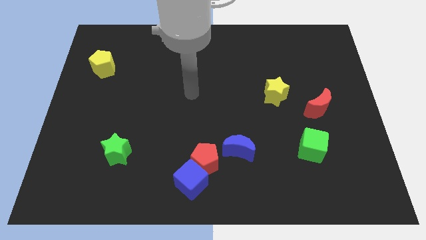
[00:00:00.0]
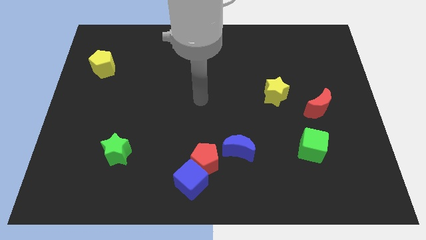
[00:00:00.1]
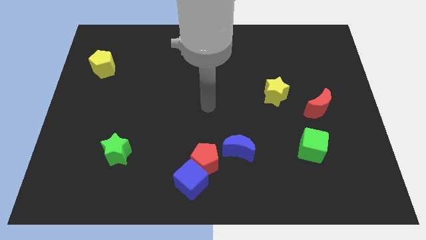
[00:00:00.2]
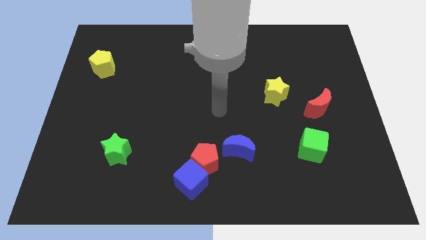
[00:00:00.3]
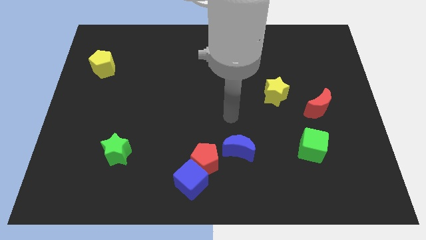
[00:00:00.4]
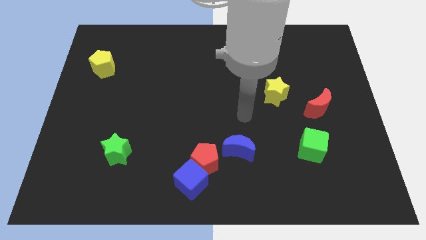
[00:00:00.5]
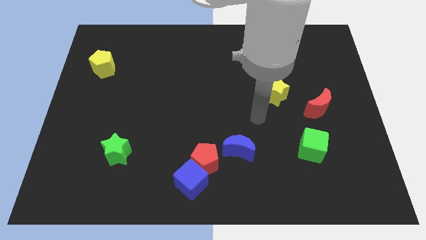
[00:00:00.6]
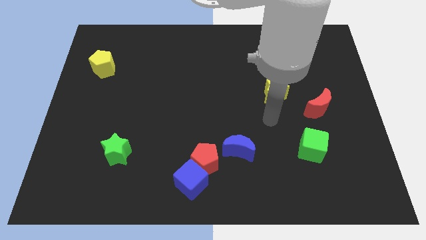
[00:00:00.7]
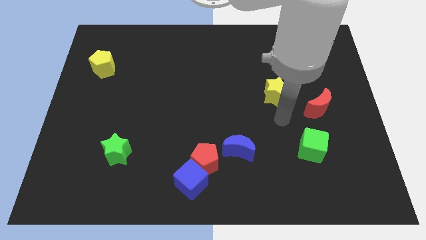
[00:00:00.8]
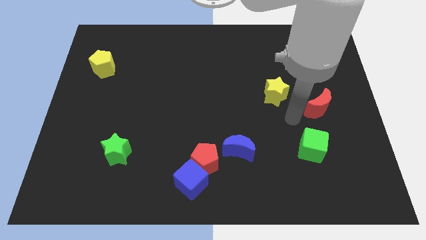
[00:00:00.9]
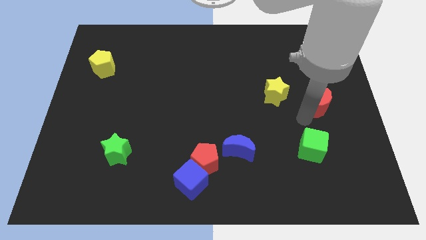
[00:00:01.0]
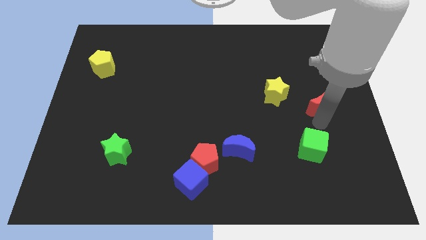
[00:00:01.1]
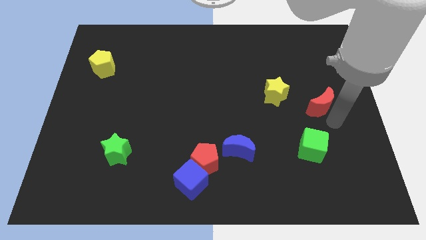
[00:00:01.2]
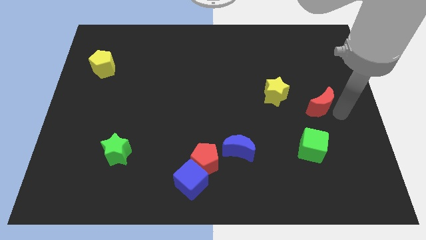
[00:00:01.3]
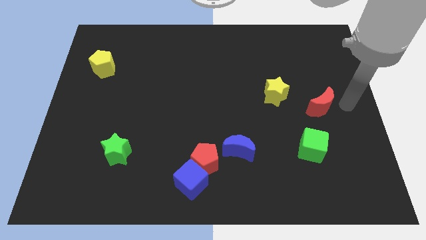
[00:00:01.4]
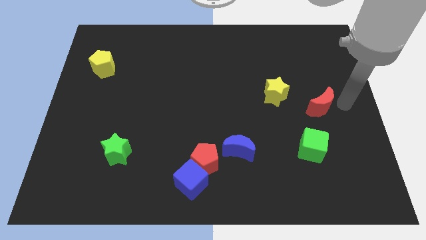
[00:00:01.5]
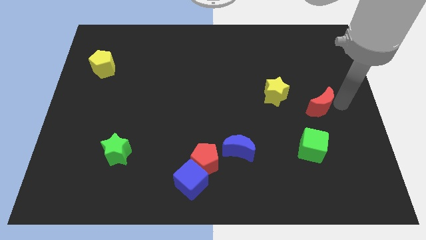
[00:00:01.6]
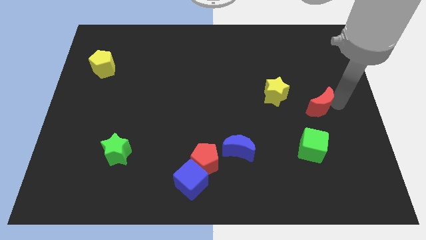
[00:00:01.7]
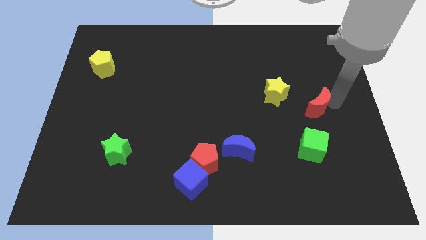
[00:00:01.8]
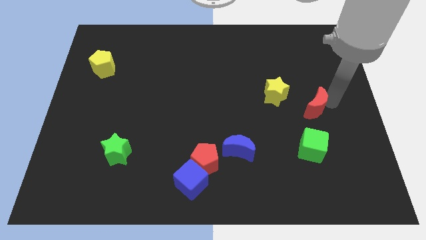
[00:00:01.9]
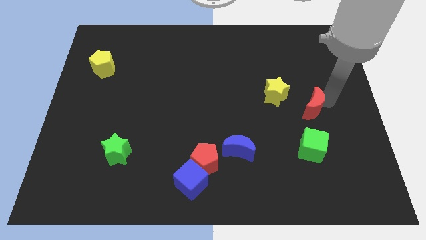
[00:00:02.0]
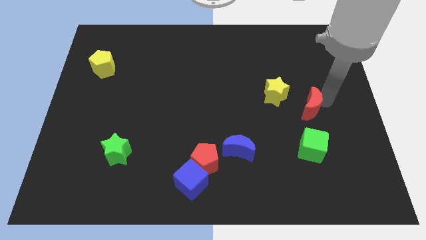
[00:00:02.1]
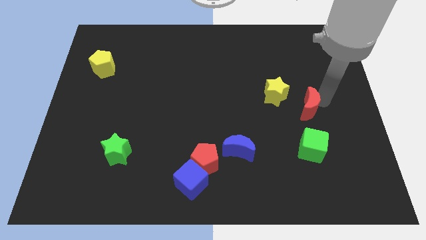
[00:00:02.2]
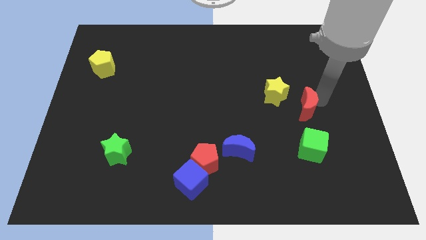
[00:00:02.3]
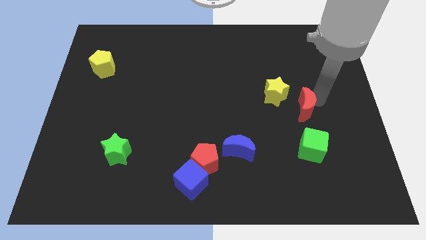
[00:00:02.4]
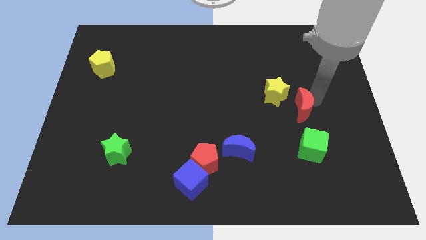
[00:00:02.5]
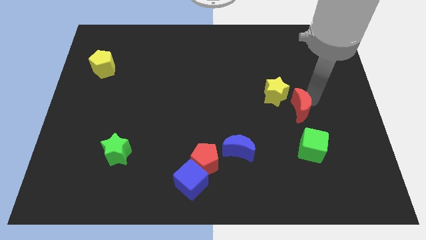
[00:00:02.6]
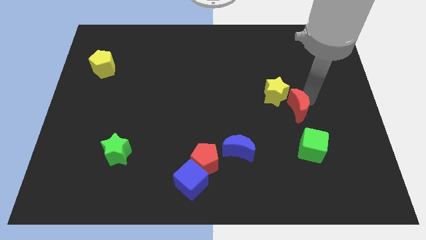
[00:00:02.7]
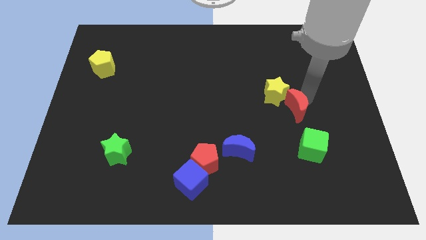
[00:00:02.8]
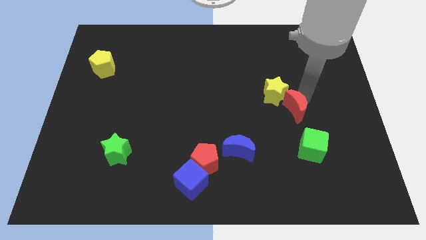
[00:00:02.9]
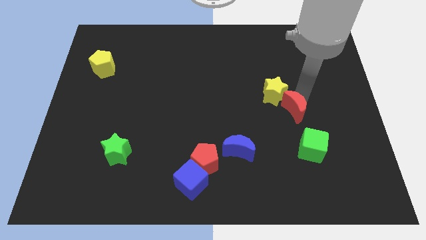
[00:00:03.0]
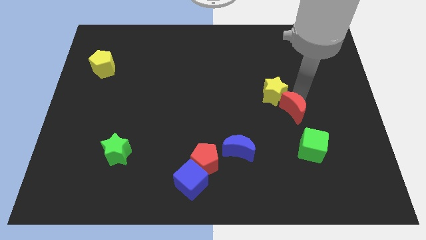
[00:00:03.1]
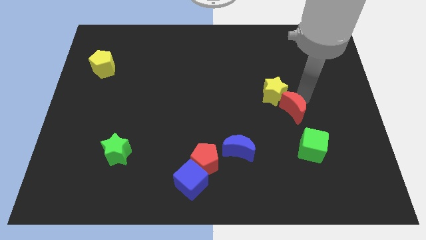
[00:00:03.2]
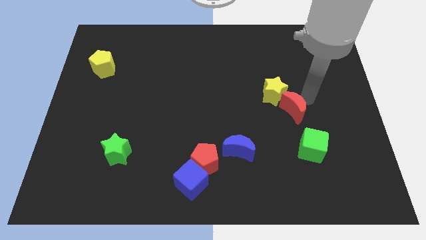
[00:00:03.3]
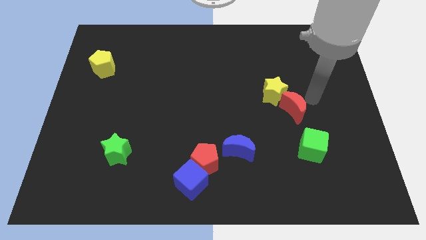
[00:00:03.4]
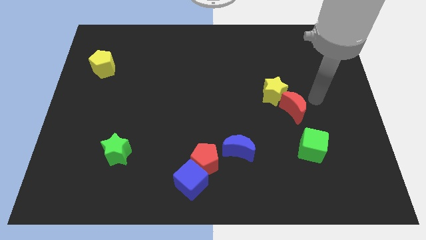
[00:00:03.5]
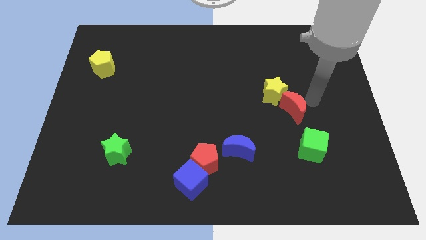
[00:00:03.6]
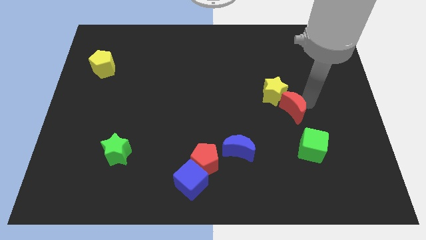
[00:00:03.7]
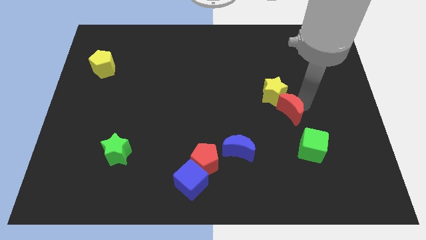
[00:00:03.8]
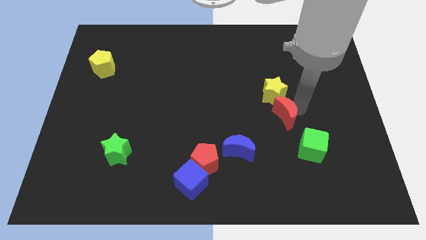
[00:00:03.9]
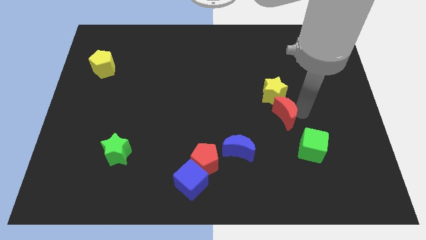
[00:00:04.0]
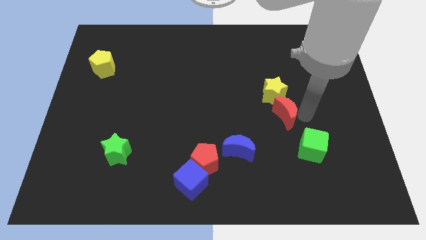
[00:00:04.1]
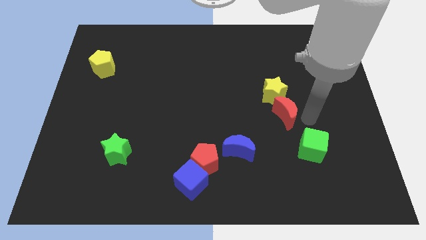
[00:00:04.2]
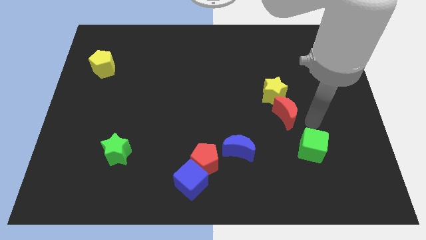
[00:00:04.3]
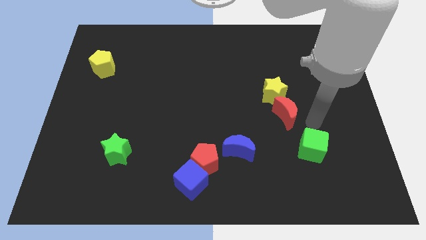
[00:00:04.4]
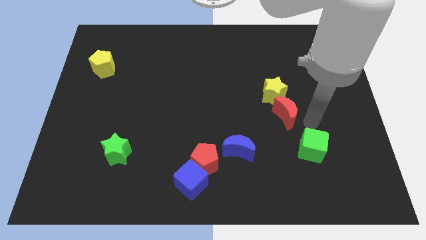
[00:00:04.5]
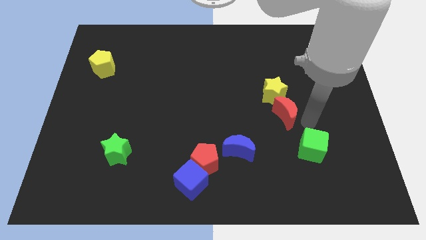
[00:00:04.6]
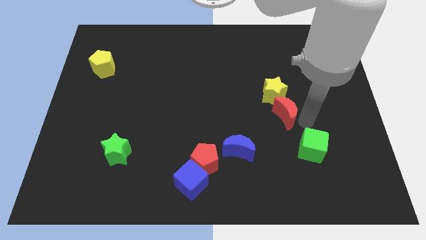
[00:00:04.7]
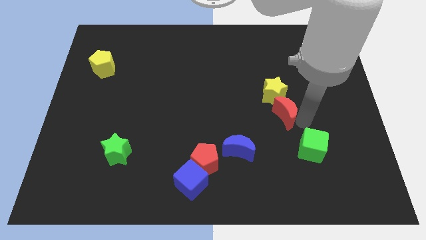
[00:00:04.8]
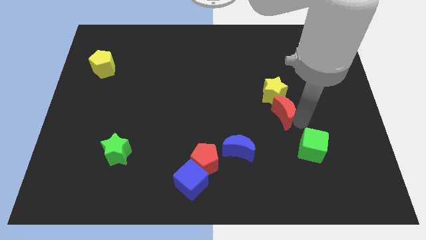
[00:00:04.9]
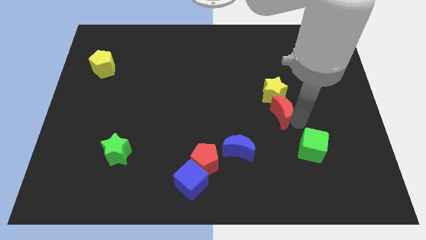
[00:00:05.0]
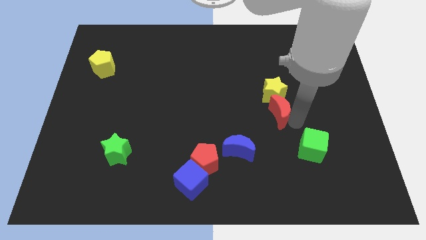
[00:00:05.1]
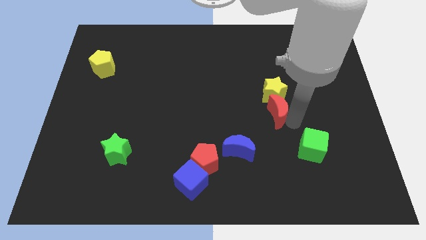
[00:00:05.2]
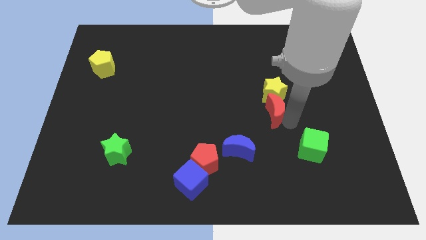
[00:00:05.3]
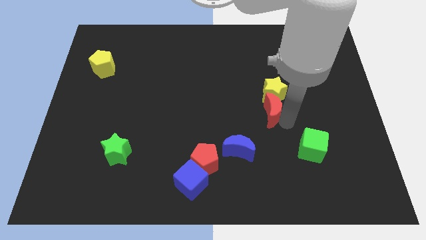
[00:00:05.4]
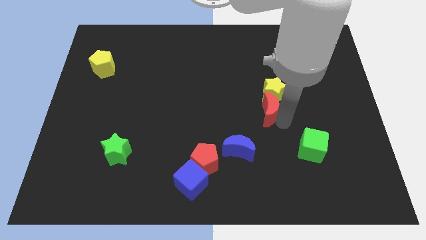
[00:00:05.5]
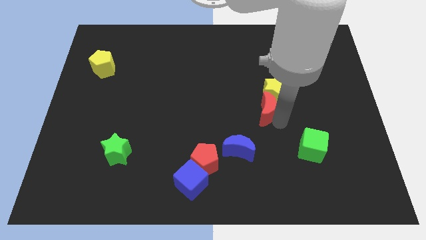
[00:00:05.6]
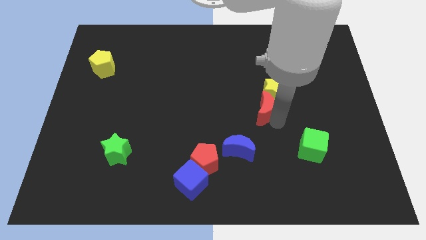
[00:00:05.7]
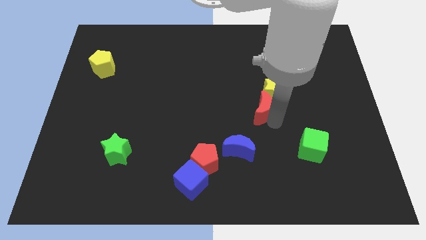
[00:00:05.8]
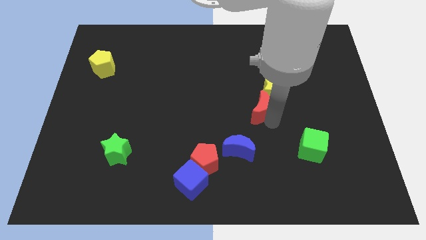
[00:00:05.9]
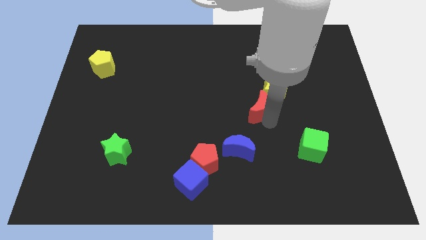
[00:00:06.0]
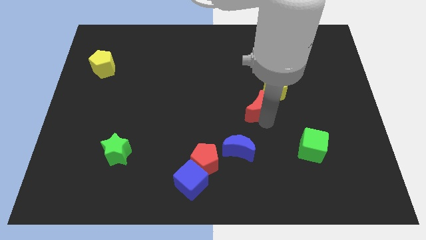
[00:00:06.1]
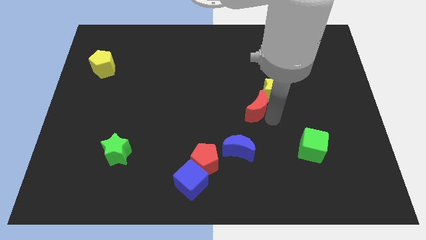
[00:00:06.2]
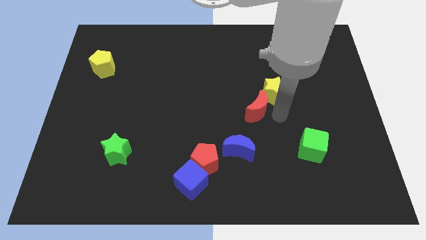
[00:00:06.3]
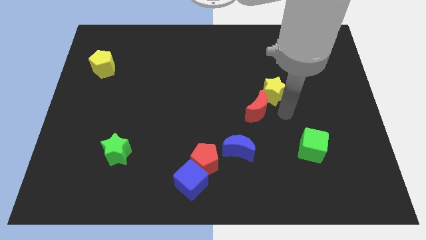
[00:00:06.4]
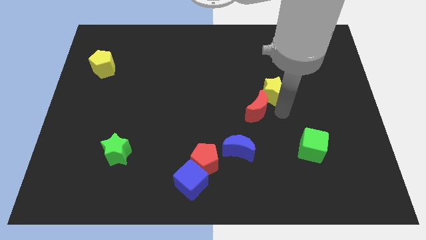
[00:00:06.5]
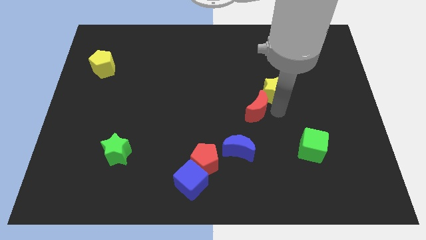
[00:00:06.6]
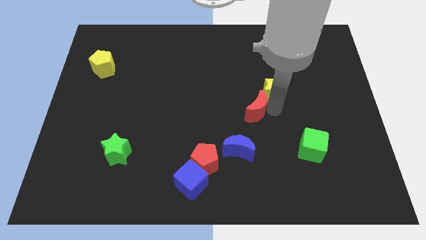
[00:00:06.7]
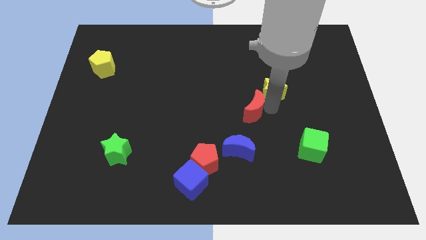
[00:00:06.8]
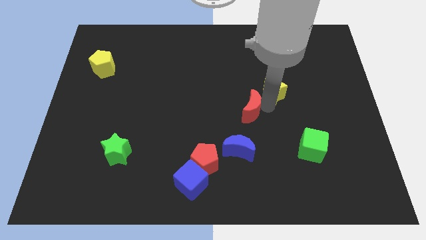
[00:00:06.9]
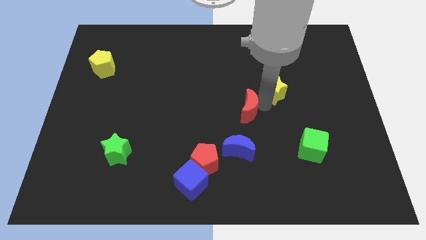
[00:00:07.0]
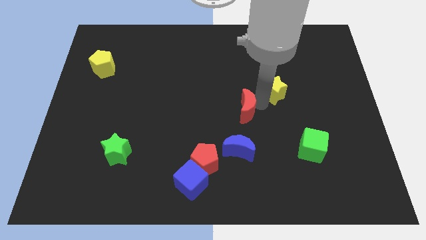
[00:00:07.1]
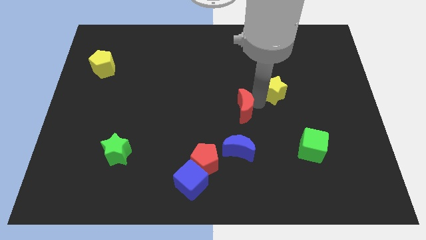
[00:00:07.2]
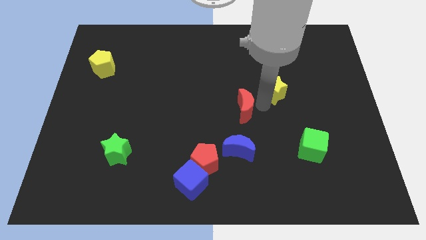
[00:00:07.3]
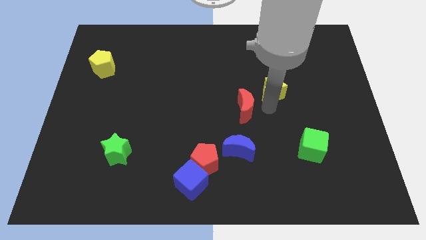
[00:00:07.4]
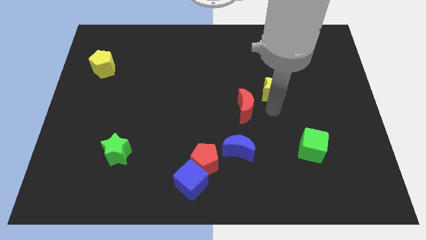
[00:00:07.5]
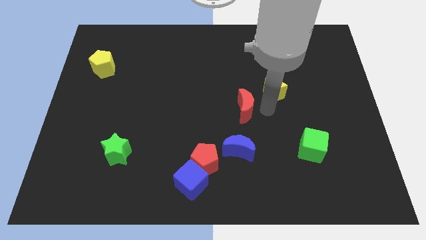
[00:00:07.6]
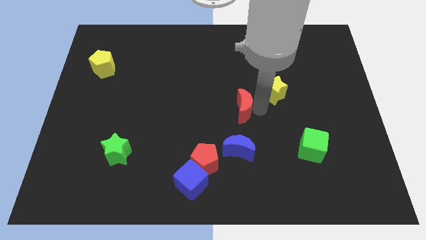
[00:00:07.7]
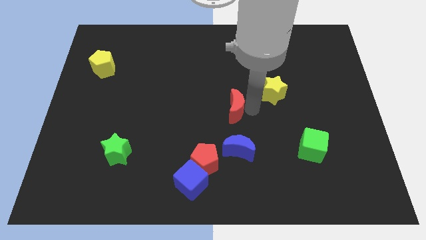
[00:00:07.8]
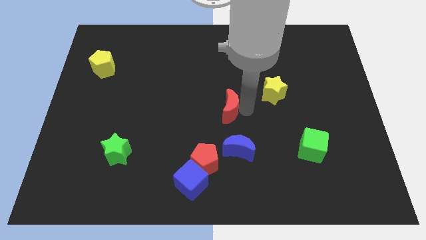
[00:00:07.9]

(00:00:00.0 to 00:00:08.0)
push the red moon to the left
